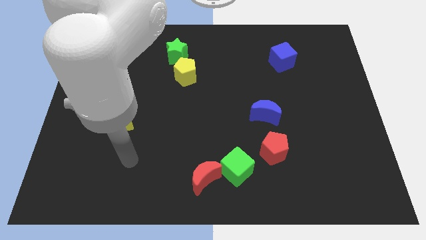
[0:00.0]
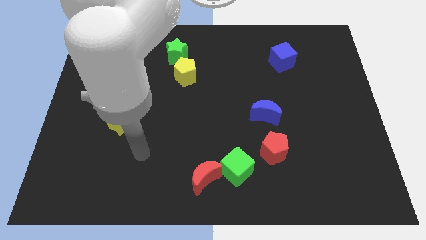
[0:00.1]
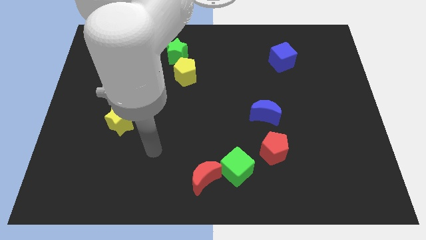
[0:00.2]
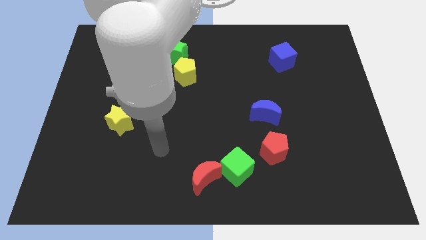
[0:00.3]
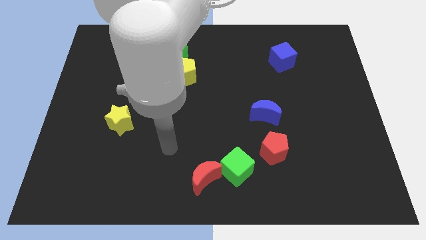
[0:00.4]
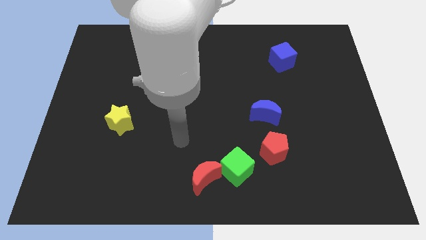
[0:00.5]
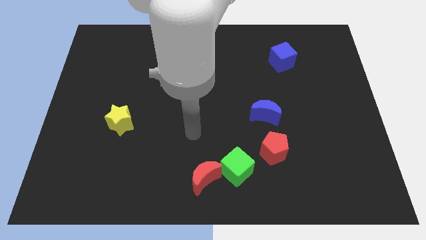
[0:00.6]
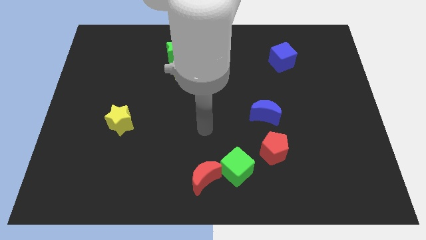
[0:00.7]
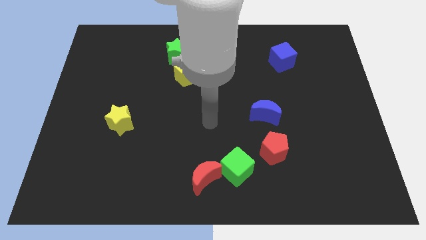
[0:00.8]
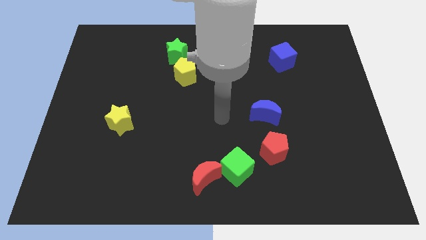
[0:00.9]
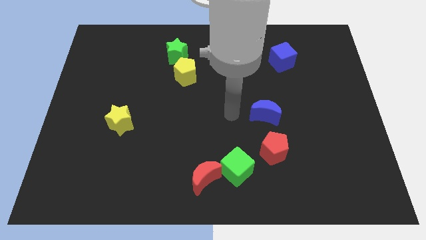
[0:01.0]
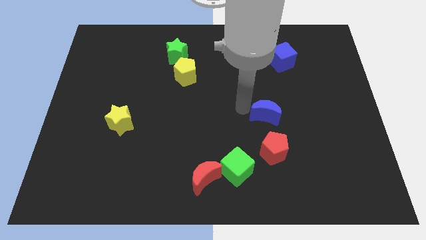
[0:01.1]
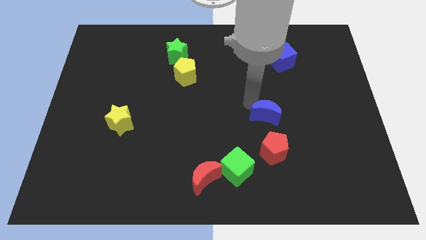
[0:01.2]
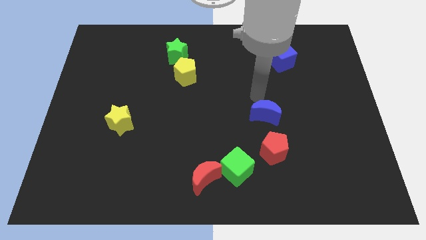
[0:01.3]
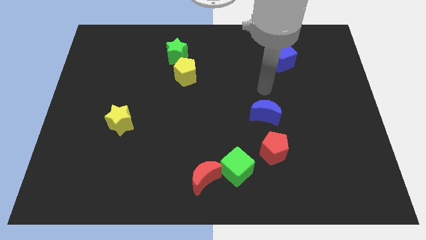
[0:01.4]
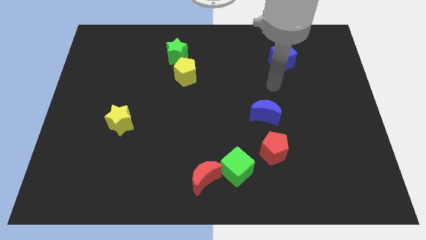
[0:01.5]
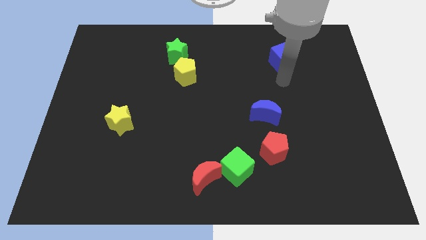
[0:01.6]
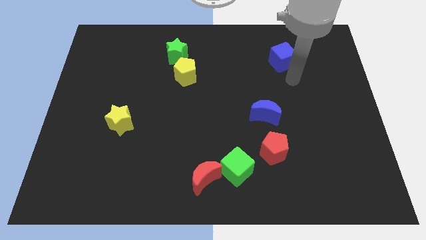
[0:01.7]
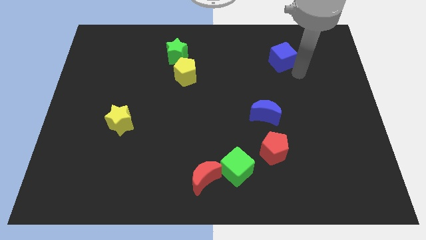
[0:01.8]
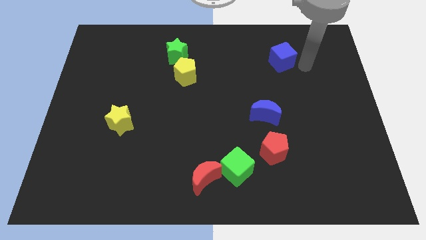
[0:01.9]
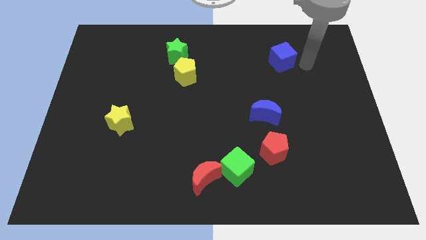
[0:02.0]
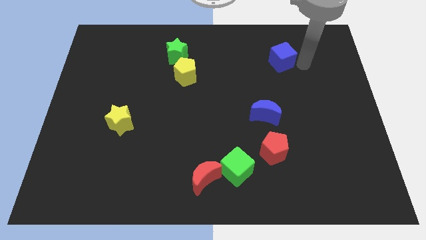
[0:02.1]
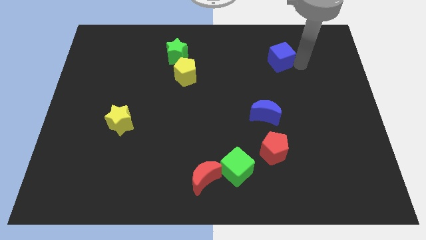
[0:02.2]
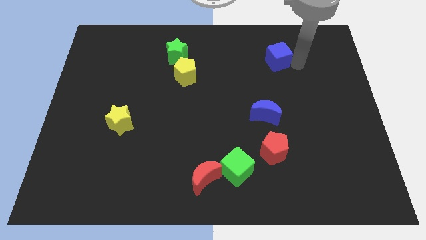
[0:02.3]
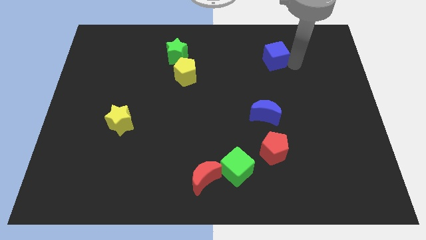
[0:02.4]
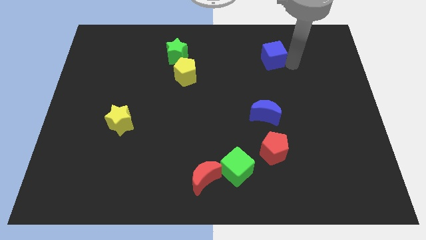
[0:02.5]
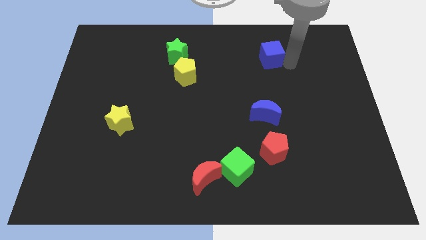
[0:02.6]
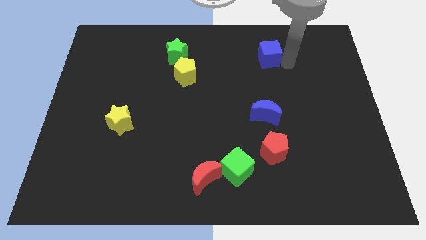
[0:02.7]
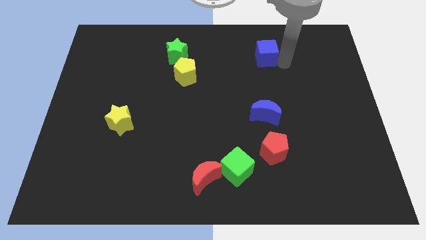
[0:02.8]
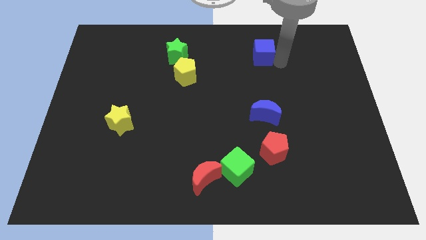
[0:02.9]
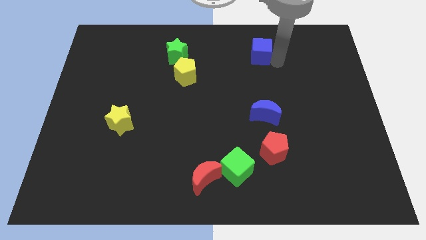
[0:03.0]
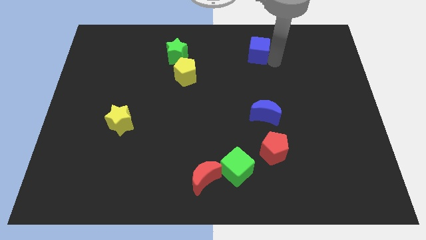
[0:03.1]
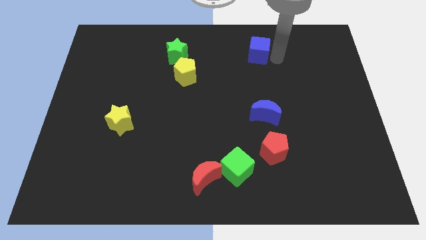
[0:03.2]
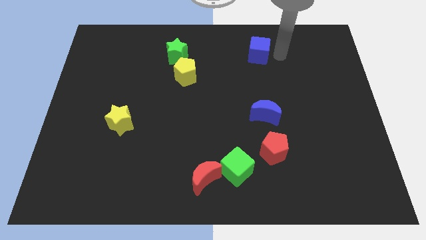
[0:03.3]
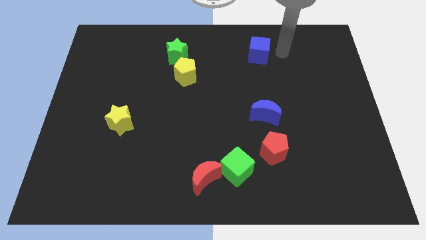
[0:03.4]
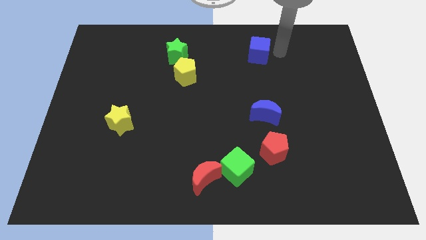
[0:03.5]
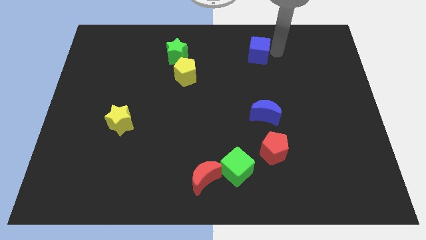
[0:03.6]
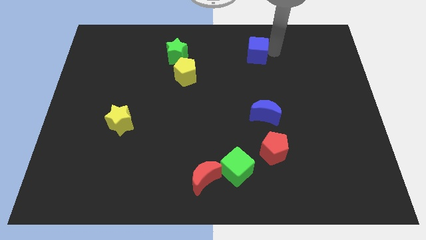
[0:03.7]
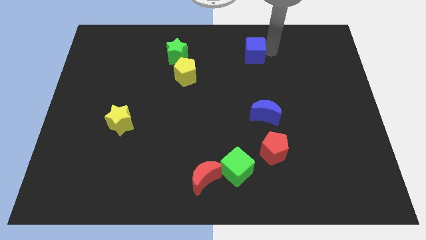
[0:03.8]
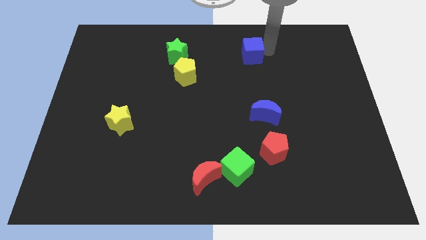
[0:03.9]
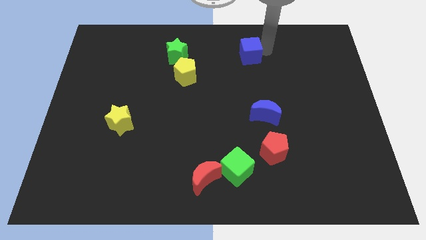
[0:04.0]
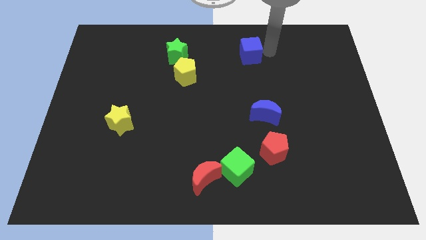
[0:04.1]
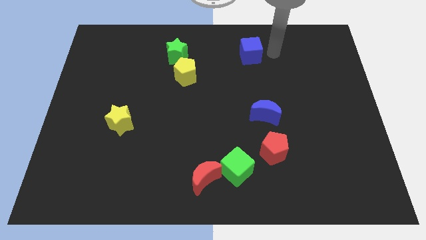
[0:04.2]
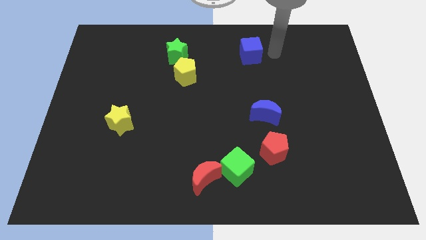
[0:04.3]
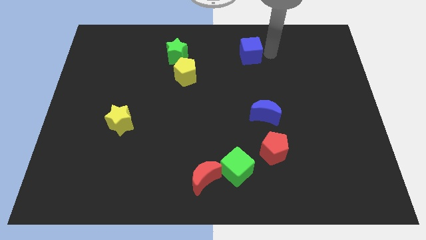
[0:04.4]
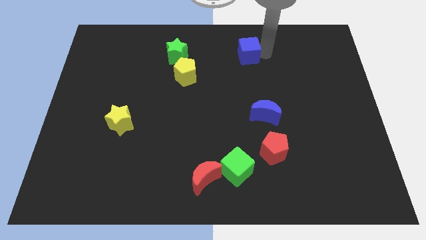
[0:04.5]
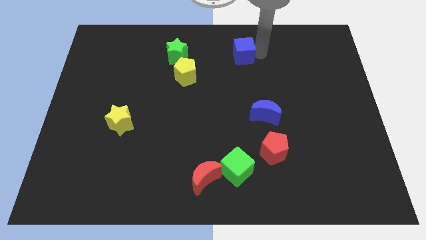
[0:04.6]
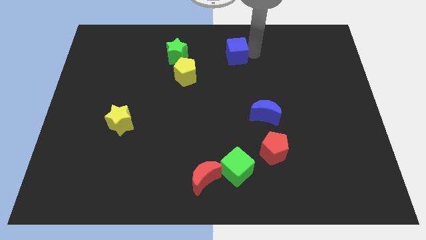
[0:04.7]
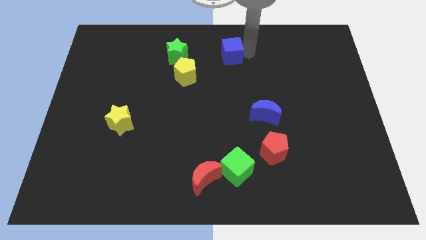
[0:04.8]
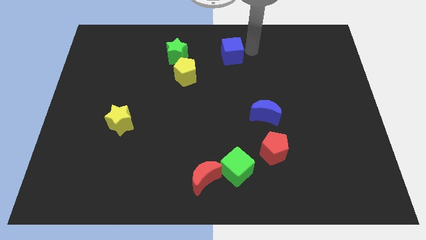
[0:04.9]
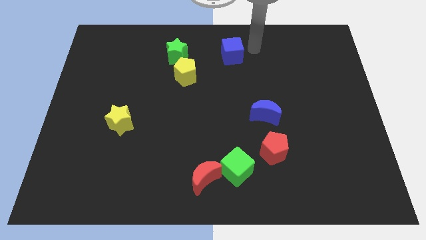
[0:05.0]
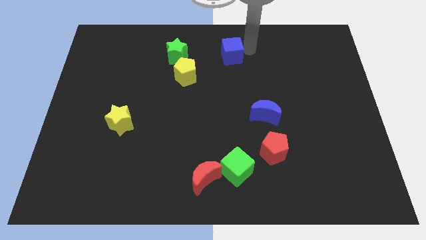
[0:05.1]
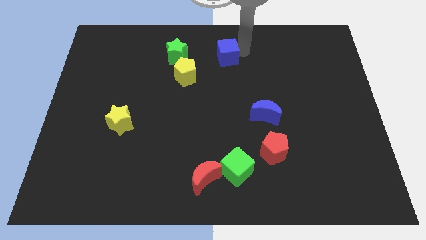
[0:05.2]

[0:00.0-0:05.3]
put the blue cube diagonally up and to the right of the yellow pentagon

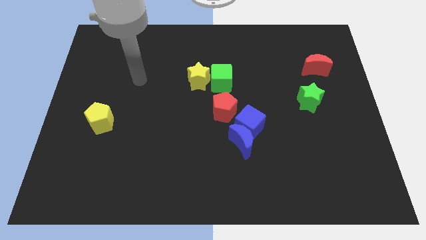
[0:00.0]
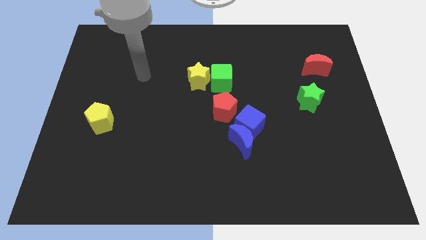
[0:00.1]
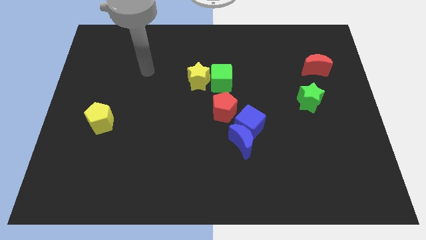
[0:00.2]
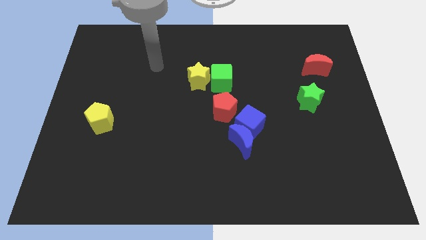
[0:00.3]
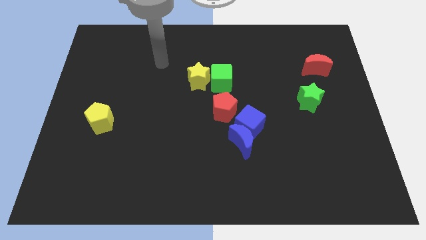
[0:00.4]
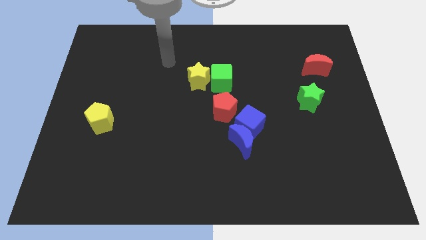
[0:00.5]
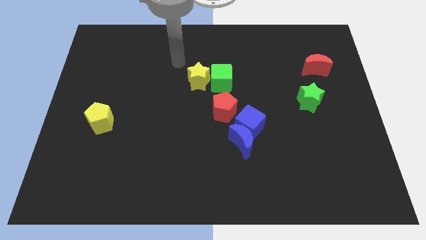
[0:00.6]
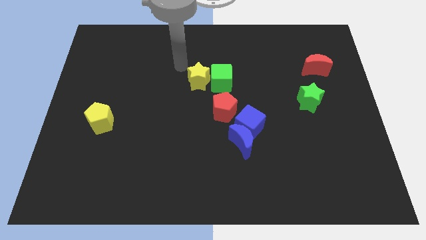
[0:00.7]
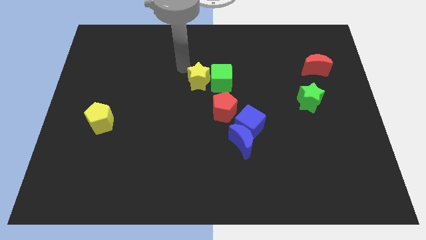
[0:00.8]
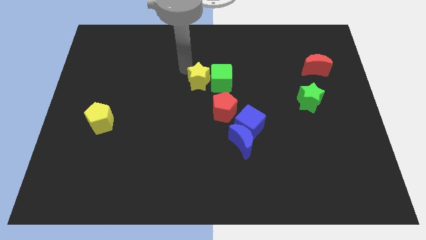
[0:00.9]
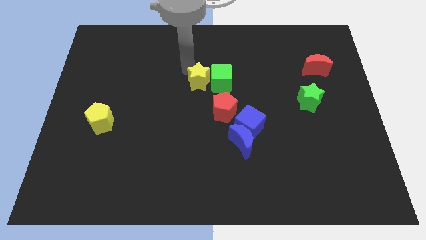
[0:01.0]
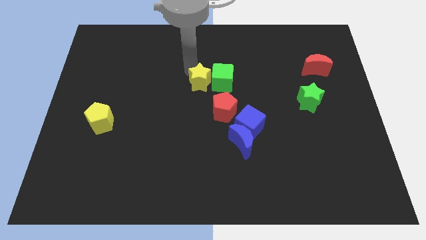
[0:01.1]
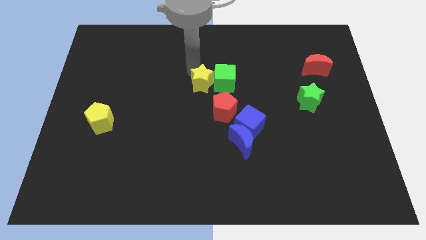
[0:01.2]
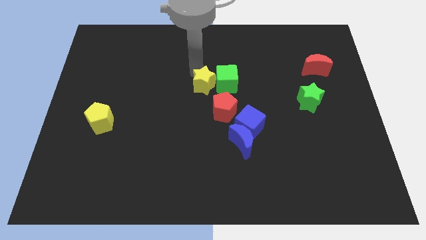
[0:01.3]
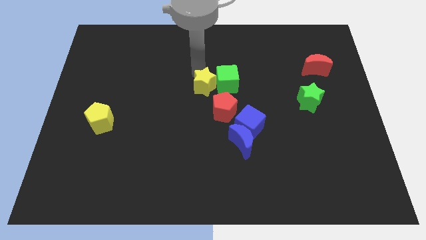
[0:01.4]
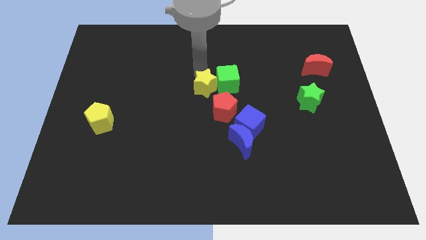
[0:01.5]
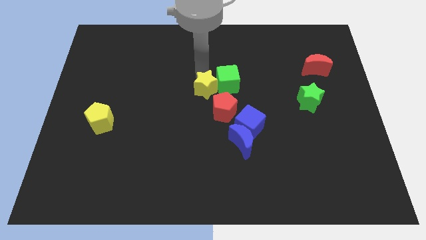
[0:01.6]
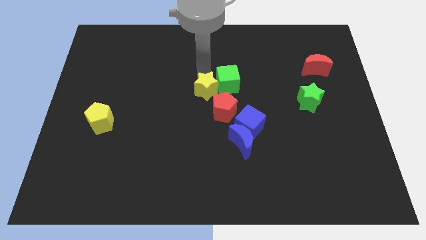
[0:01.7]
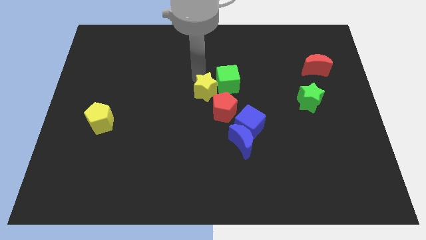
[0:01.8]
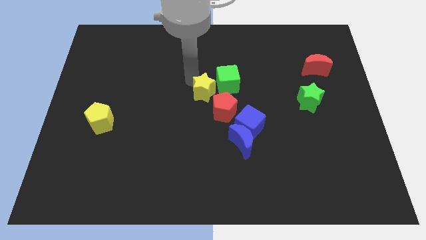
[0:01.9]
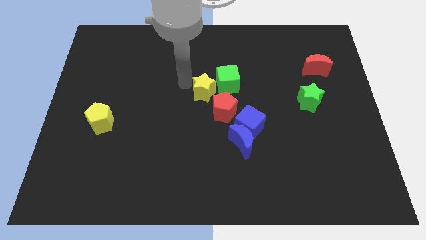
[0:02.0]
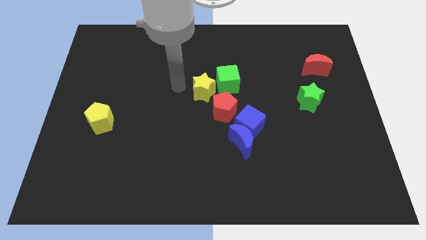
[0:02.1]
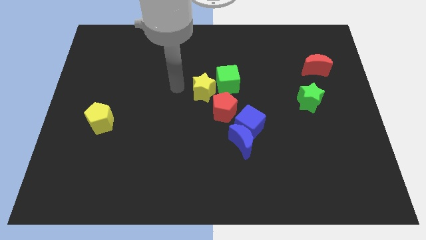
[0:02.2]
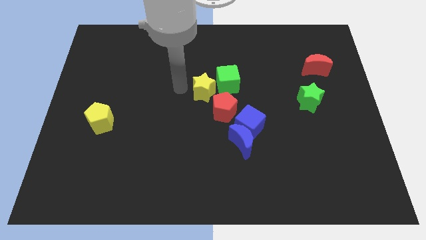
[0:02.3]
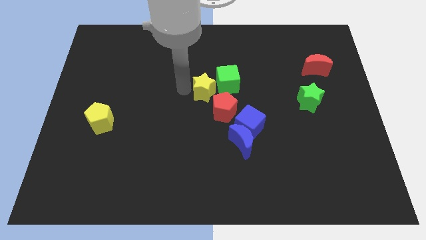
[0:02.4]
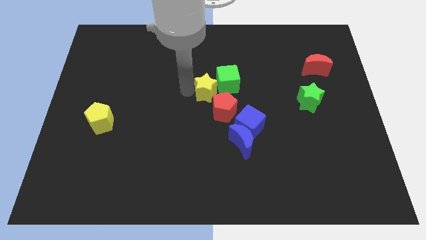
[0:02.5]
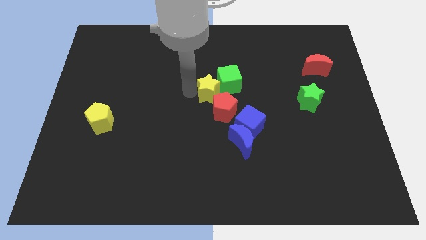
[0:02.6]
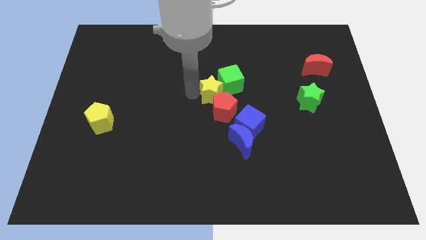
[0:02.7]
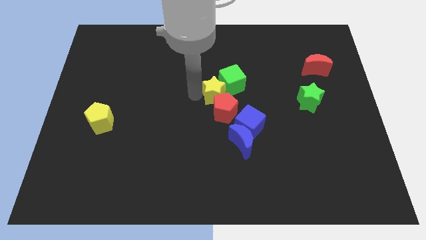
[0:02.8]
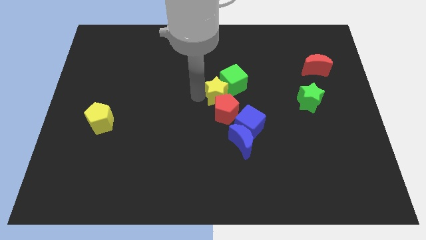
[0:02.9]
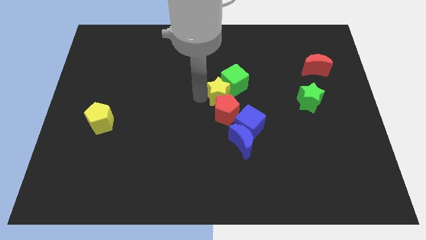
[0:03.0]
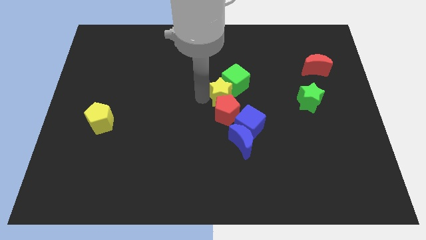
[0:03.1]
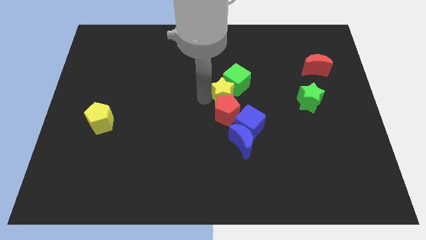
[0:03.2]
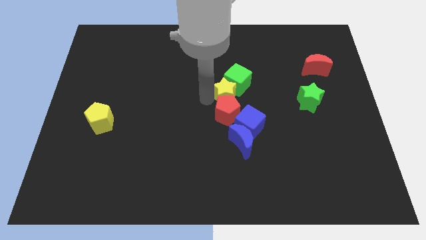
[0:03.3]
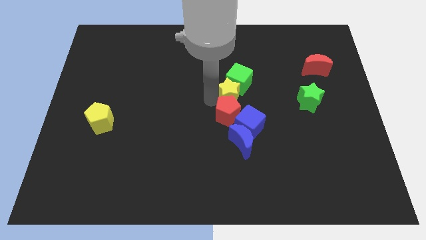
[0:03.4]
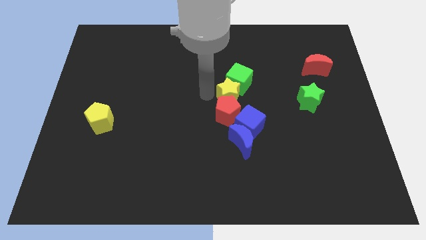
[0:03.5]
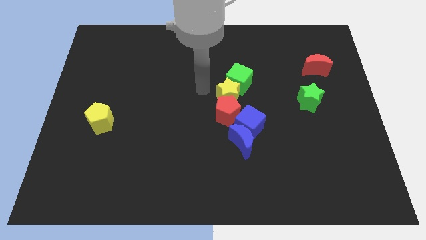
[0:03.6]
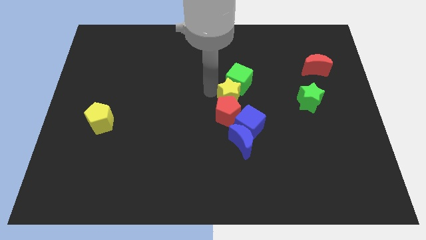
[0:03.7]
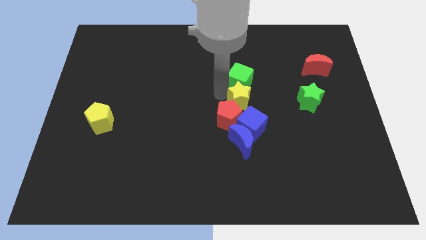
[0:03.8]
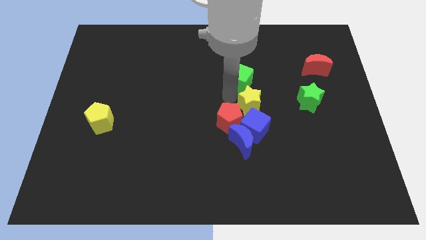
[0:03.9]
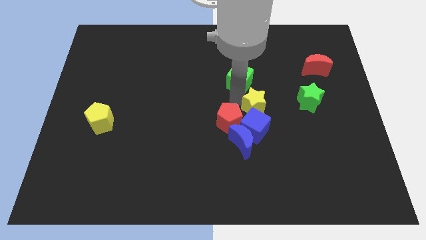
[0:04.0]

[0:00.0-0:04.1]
slide the yellow star diagonally up and to the right of the blue cube
